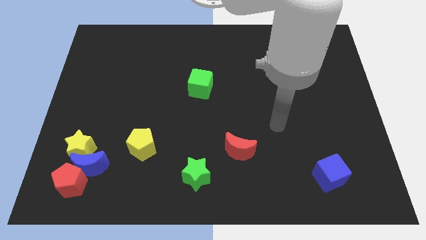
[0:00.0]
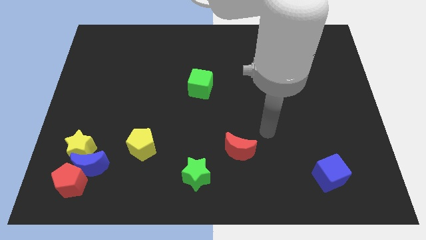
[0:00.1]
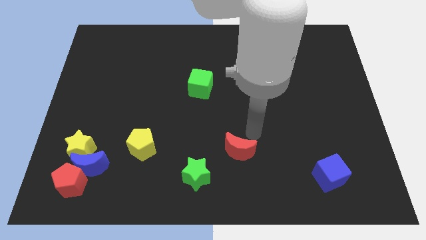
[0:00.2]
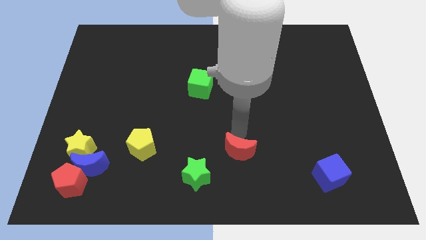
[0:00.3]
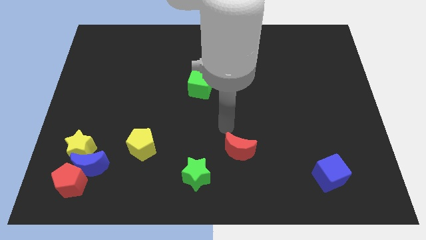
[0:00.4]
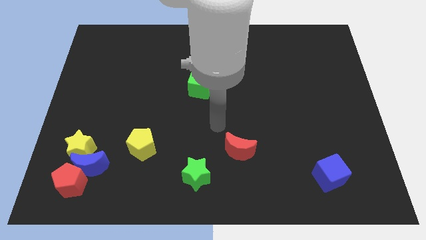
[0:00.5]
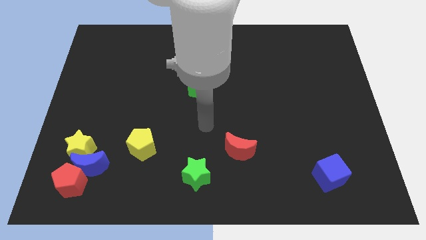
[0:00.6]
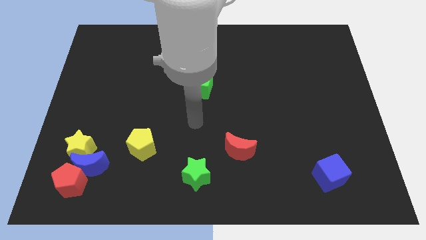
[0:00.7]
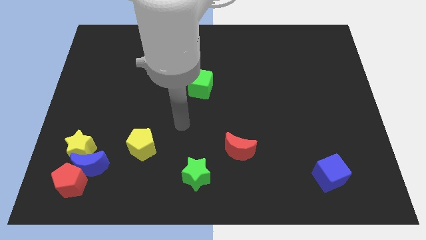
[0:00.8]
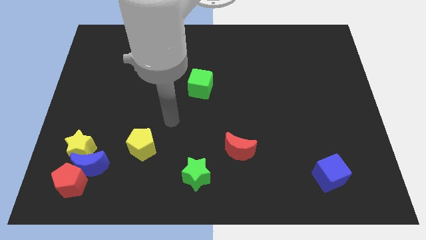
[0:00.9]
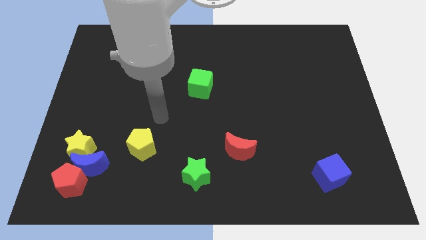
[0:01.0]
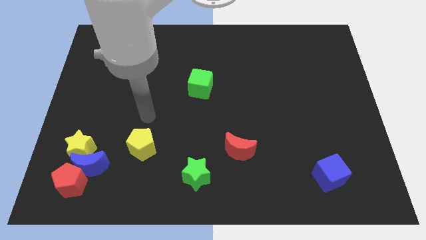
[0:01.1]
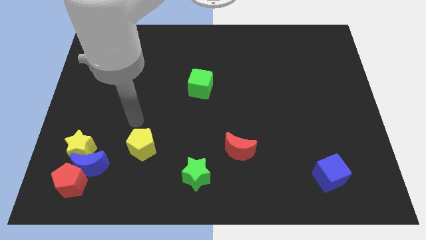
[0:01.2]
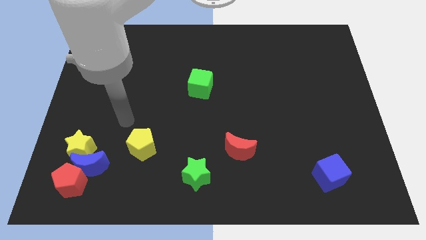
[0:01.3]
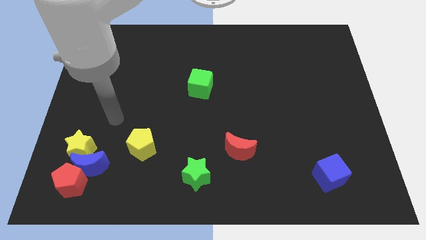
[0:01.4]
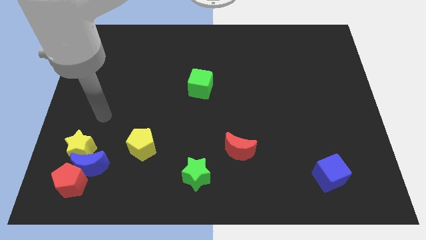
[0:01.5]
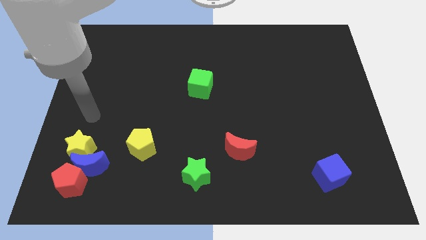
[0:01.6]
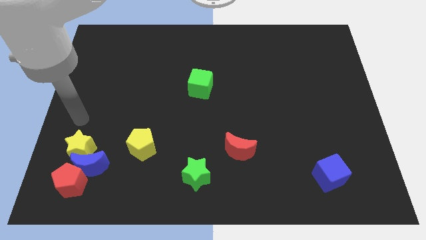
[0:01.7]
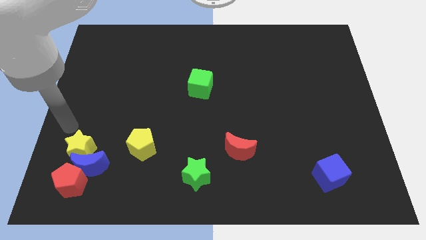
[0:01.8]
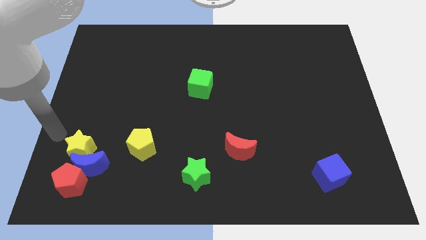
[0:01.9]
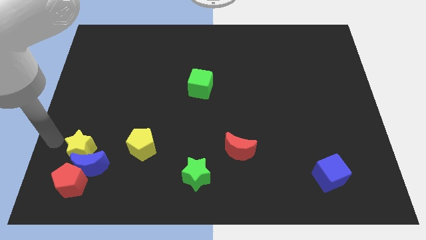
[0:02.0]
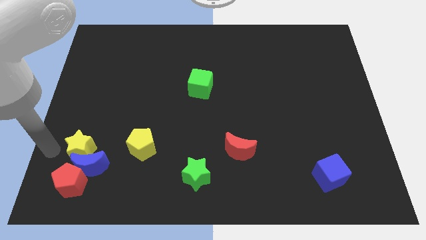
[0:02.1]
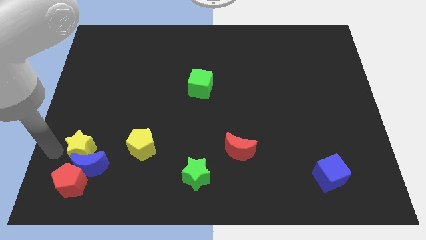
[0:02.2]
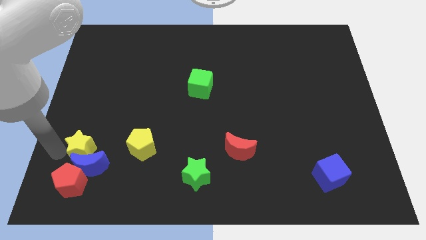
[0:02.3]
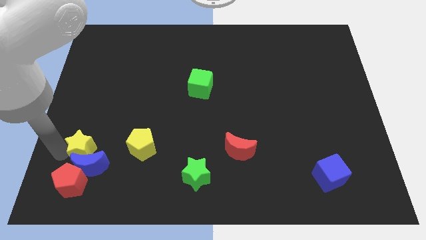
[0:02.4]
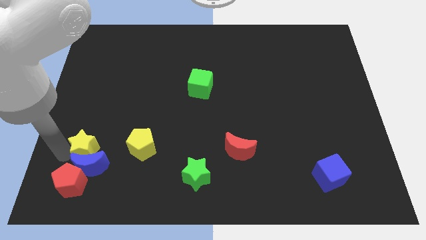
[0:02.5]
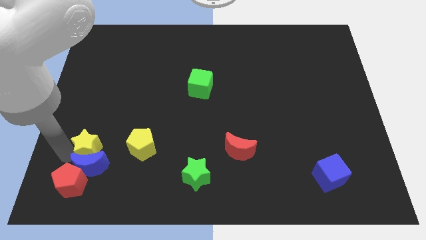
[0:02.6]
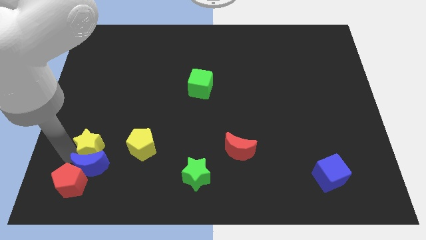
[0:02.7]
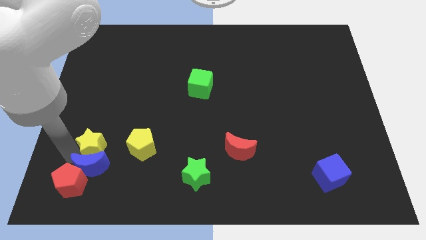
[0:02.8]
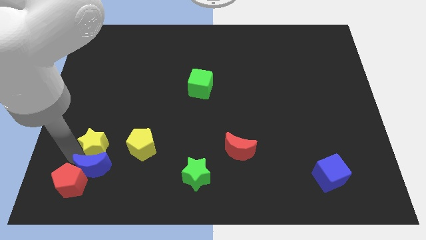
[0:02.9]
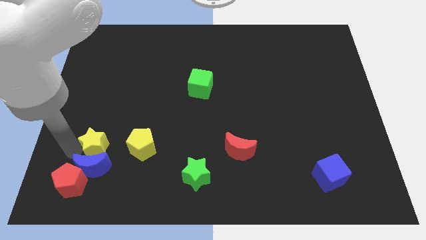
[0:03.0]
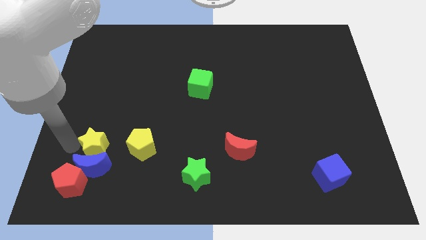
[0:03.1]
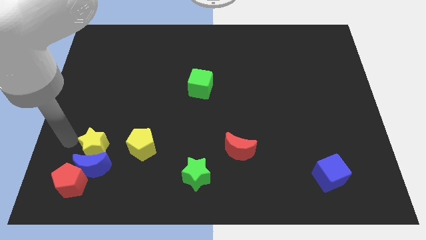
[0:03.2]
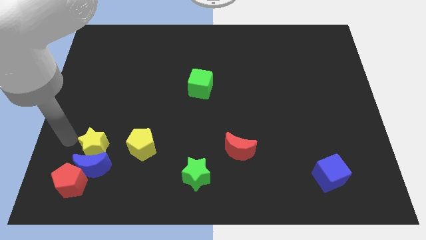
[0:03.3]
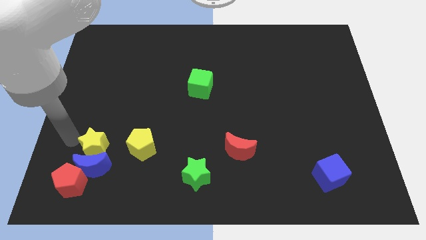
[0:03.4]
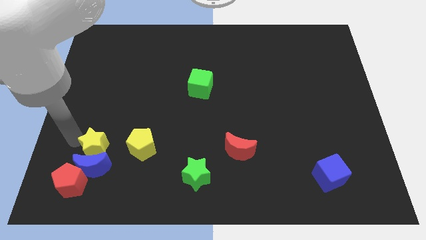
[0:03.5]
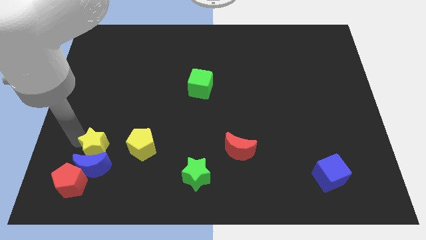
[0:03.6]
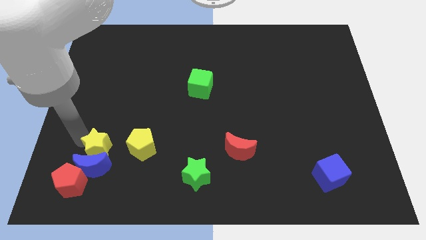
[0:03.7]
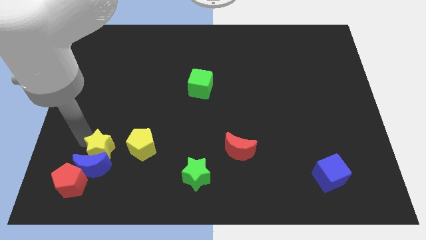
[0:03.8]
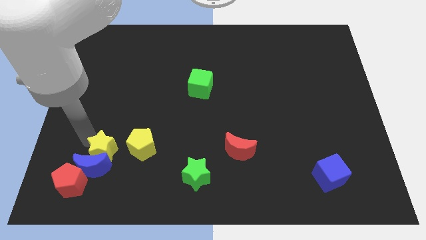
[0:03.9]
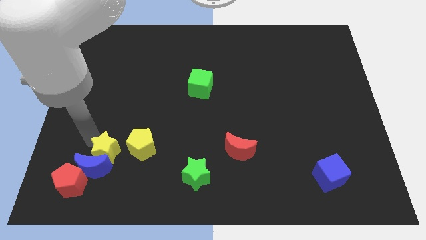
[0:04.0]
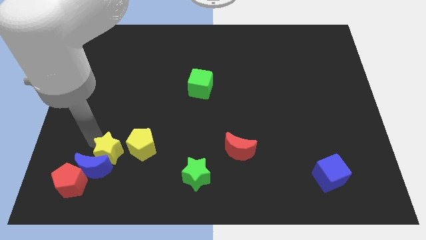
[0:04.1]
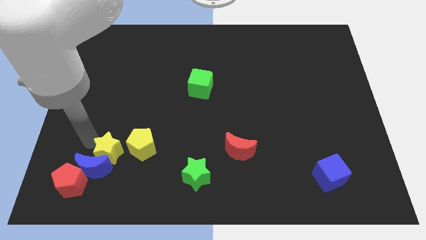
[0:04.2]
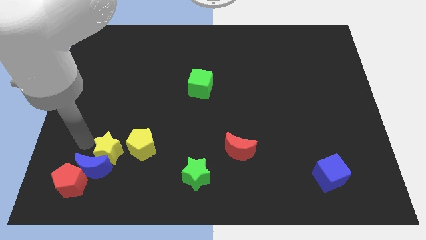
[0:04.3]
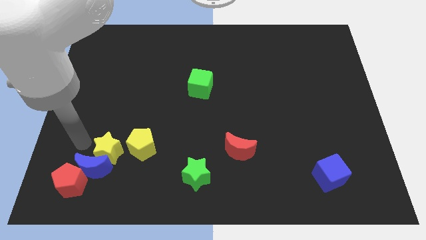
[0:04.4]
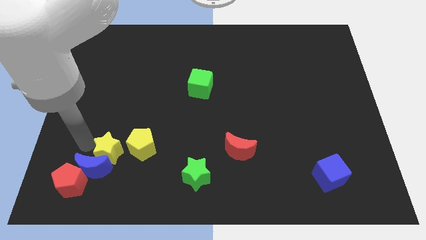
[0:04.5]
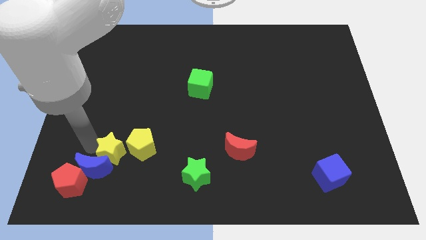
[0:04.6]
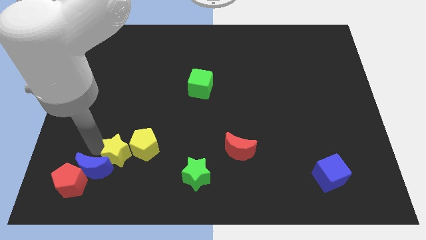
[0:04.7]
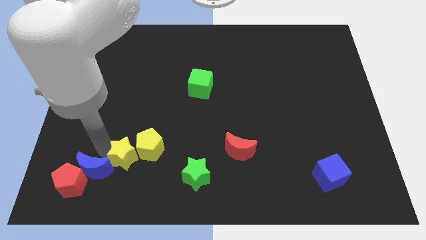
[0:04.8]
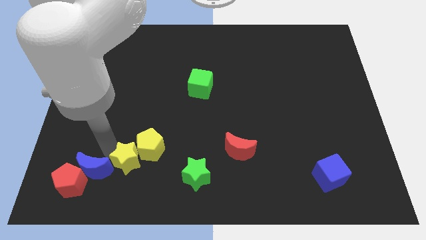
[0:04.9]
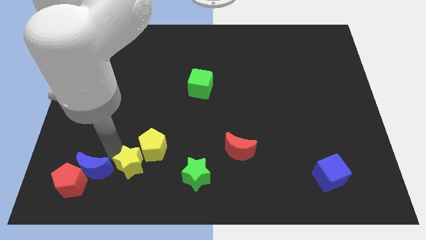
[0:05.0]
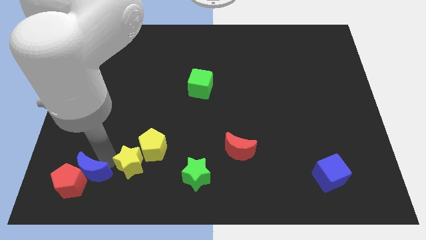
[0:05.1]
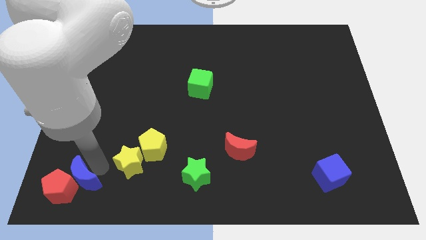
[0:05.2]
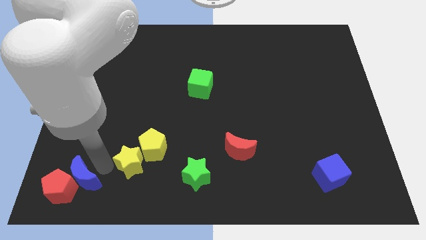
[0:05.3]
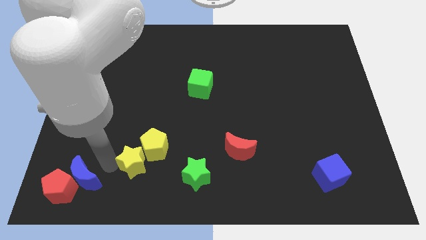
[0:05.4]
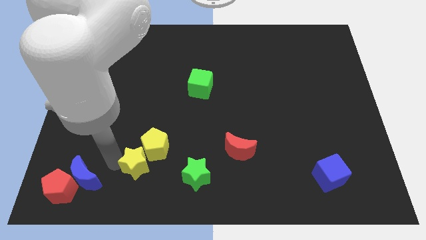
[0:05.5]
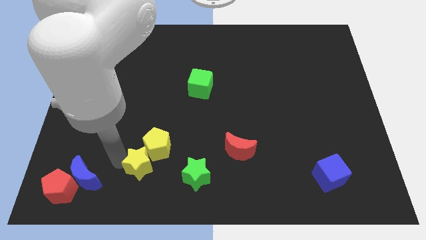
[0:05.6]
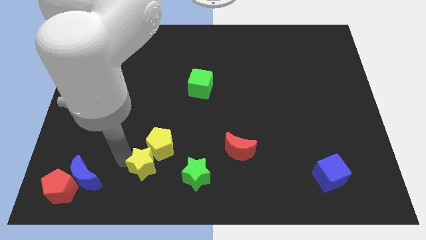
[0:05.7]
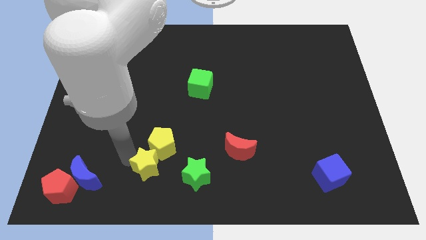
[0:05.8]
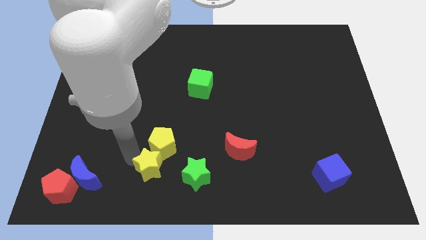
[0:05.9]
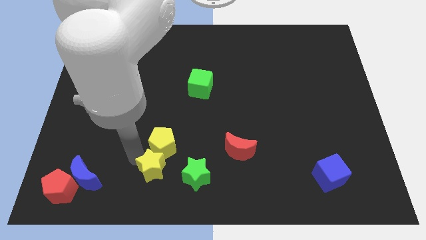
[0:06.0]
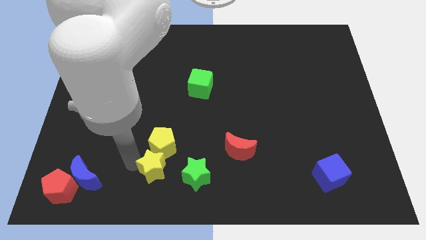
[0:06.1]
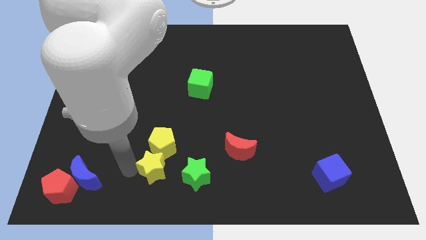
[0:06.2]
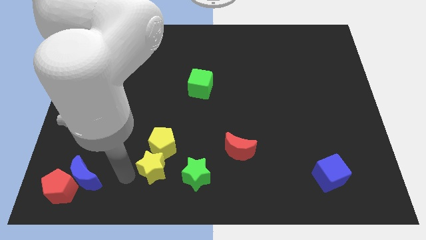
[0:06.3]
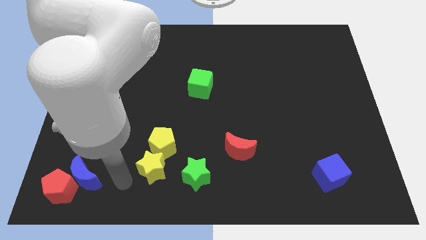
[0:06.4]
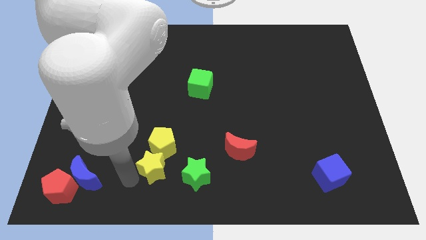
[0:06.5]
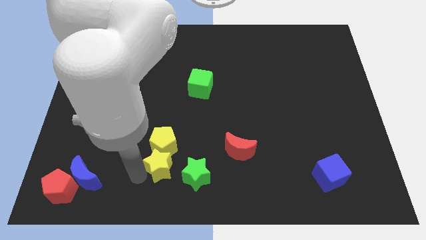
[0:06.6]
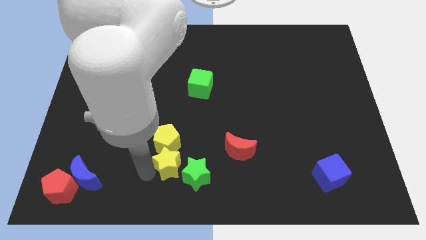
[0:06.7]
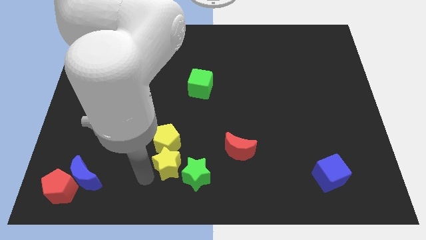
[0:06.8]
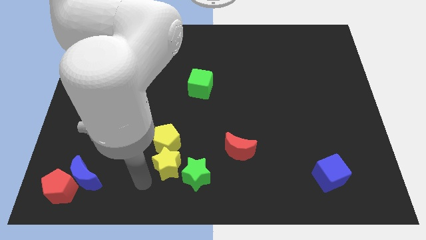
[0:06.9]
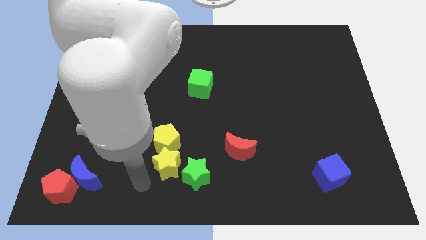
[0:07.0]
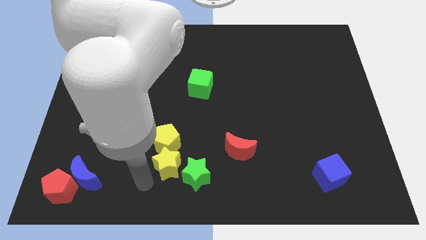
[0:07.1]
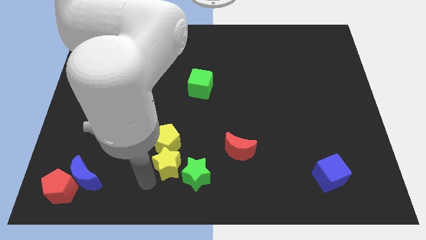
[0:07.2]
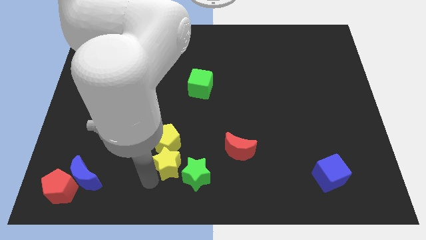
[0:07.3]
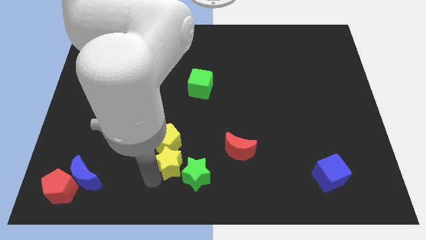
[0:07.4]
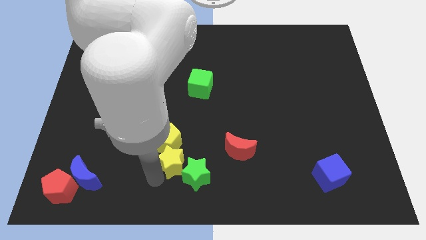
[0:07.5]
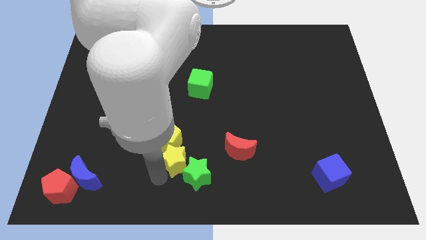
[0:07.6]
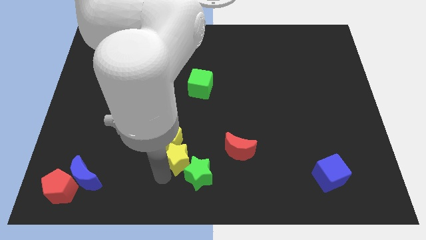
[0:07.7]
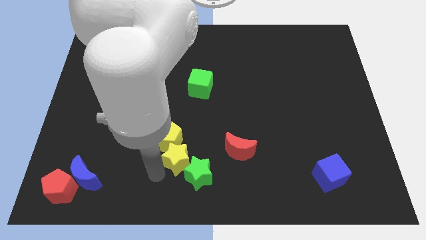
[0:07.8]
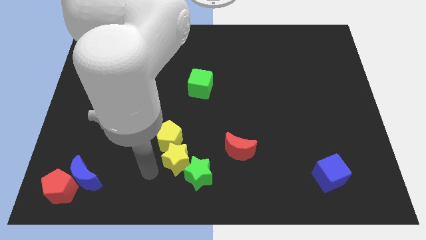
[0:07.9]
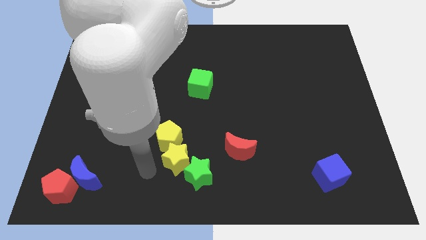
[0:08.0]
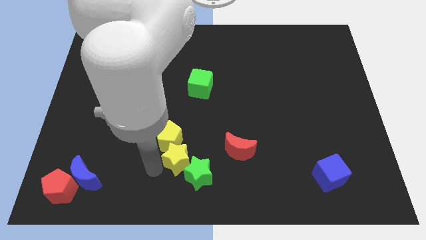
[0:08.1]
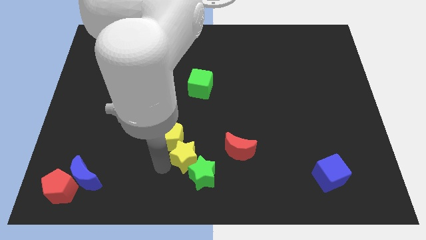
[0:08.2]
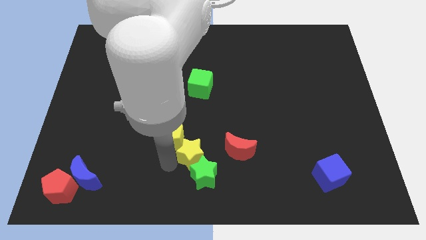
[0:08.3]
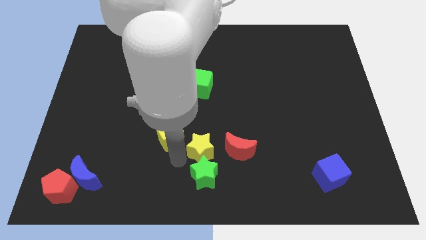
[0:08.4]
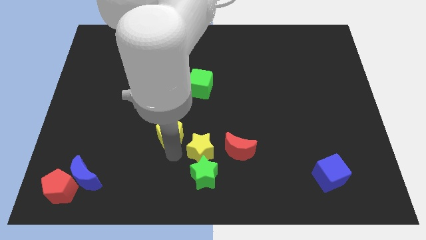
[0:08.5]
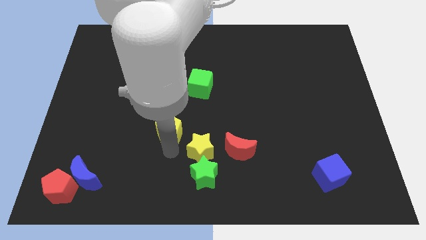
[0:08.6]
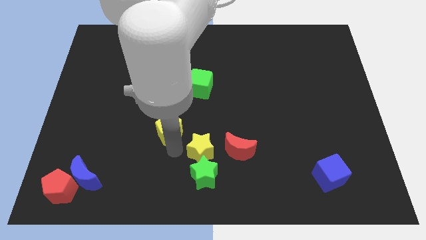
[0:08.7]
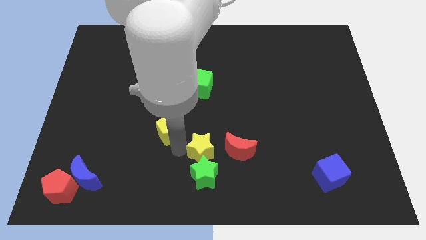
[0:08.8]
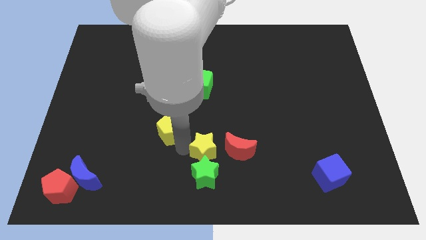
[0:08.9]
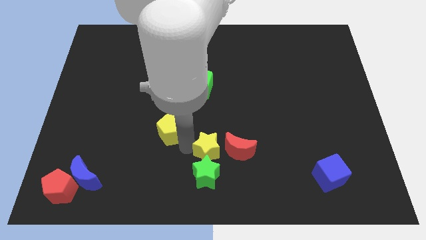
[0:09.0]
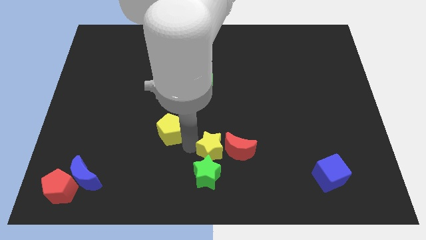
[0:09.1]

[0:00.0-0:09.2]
slide the yellow star to the red moon
